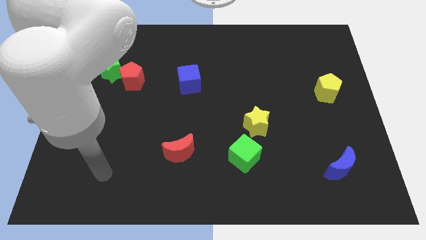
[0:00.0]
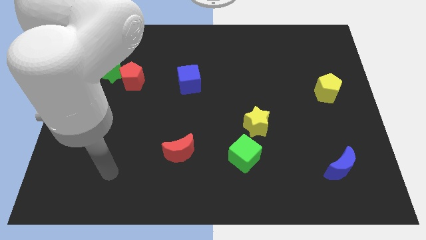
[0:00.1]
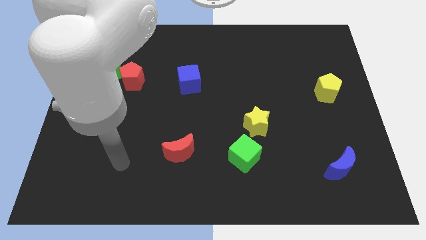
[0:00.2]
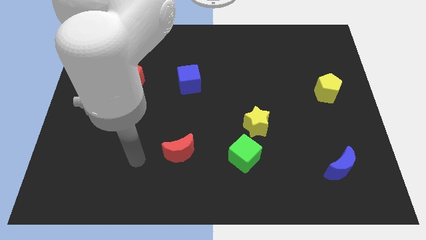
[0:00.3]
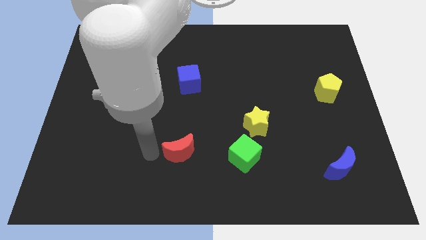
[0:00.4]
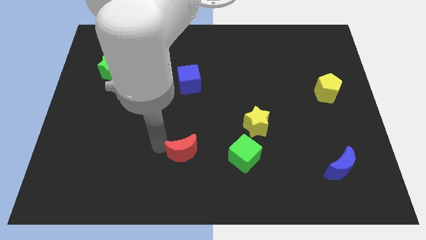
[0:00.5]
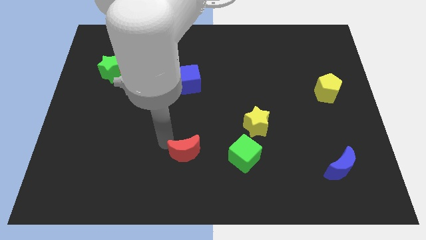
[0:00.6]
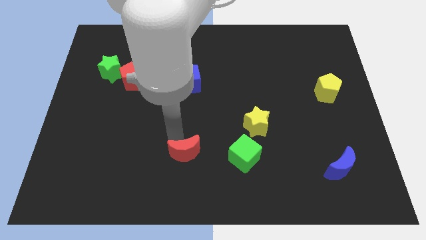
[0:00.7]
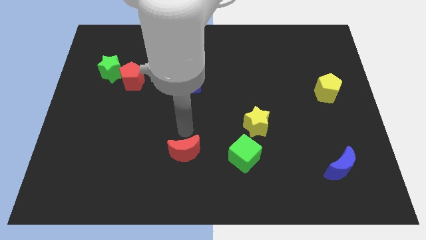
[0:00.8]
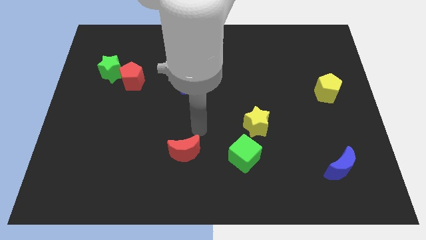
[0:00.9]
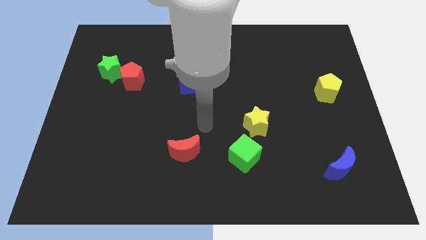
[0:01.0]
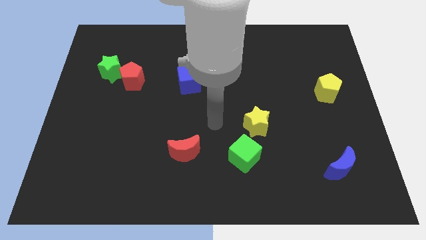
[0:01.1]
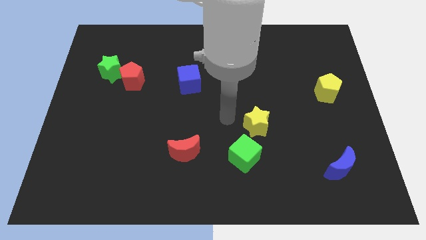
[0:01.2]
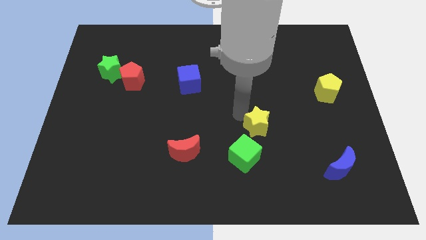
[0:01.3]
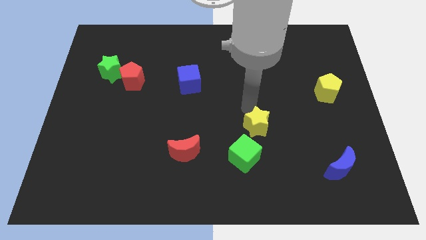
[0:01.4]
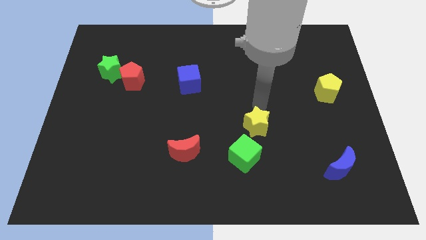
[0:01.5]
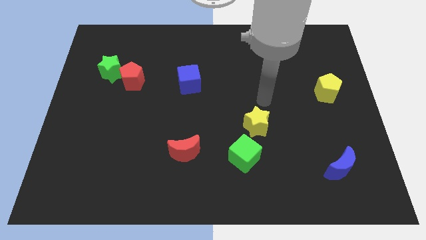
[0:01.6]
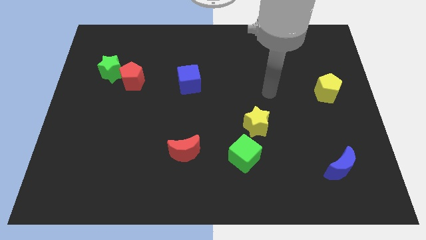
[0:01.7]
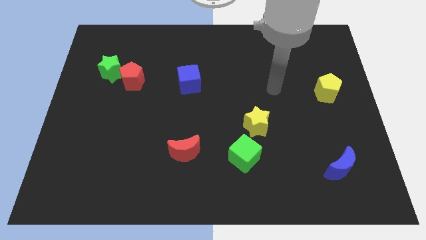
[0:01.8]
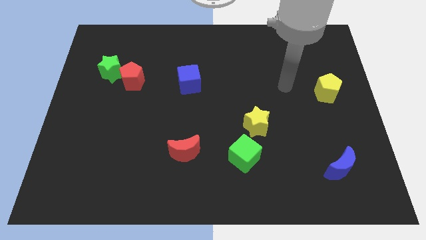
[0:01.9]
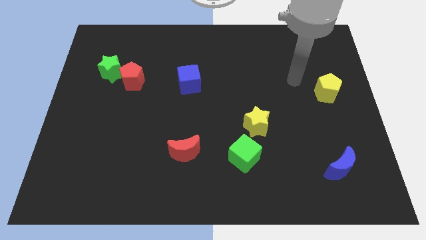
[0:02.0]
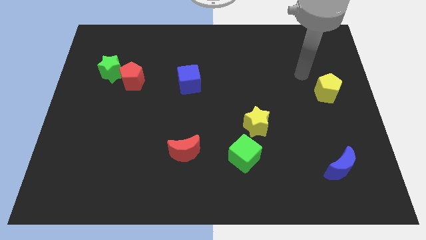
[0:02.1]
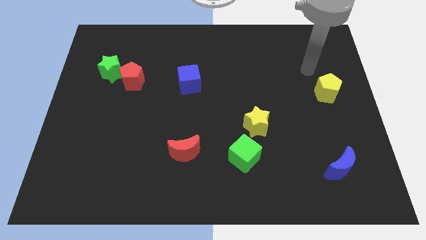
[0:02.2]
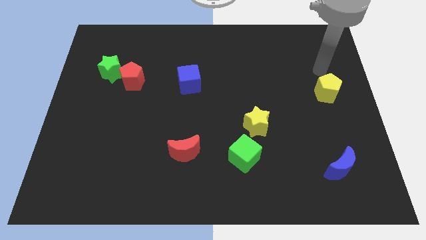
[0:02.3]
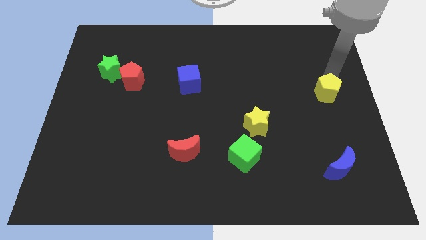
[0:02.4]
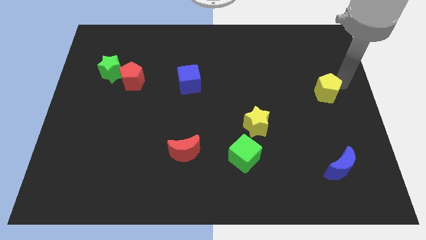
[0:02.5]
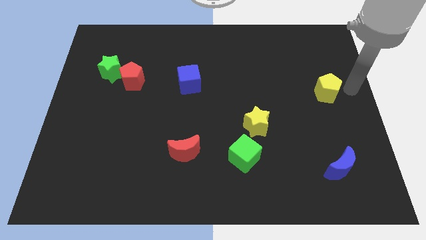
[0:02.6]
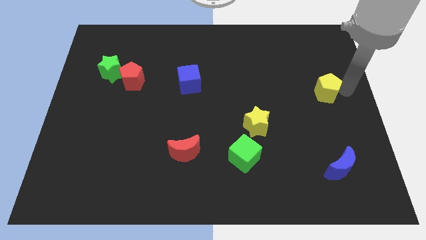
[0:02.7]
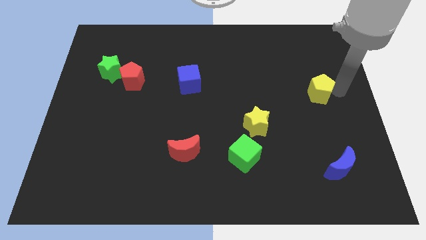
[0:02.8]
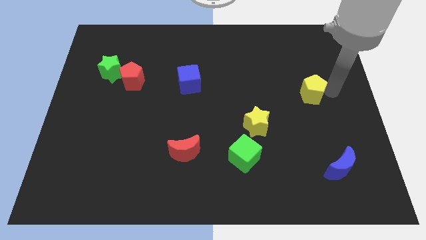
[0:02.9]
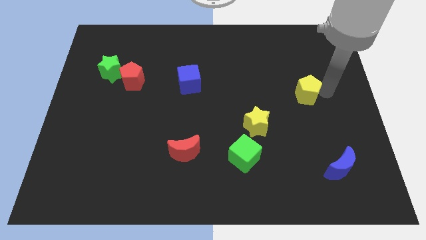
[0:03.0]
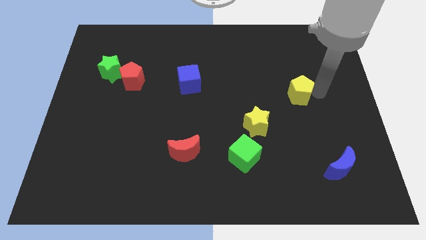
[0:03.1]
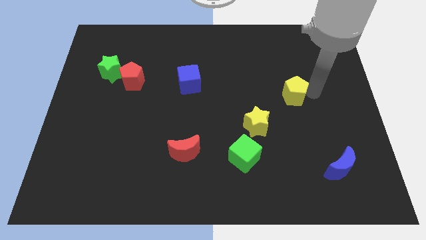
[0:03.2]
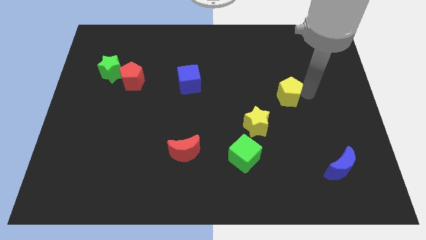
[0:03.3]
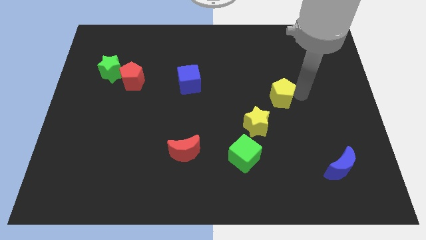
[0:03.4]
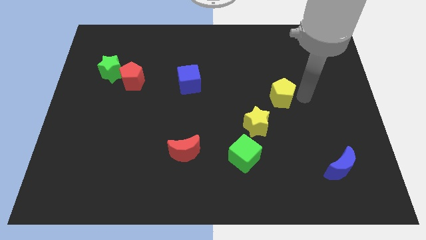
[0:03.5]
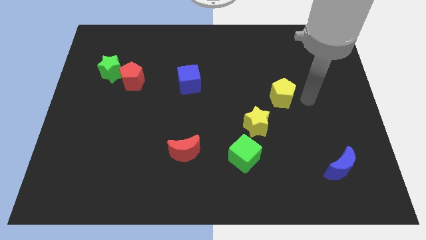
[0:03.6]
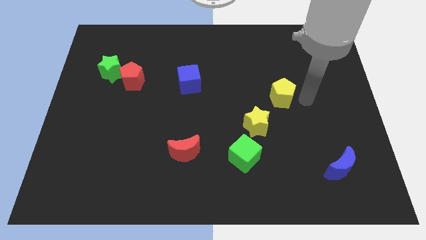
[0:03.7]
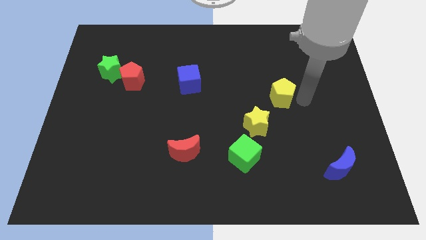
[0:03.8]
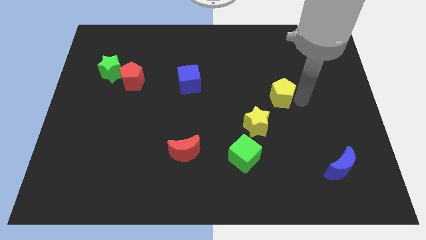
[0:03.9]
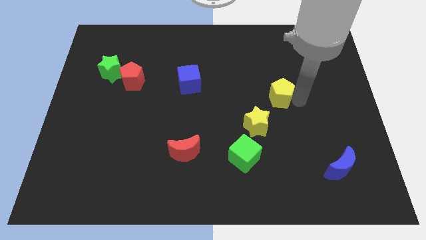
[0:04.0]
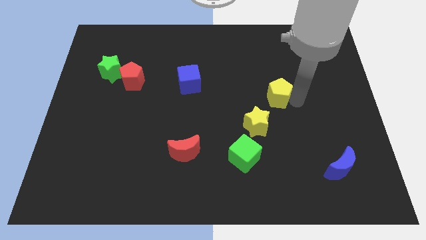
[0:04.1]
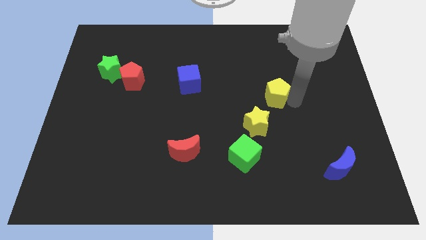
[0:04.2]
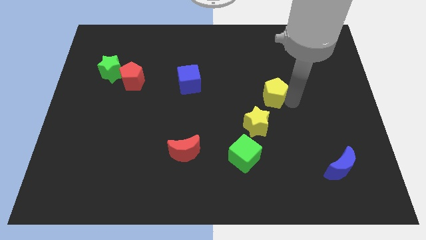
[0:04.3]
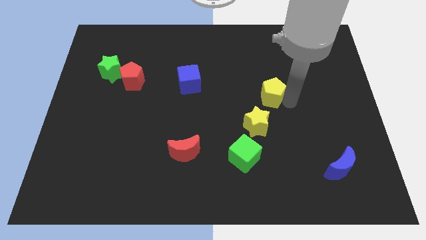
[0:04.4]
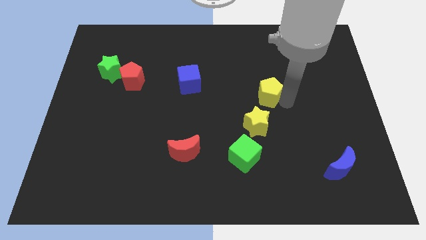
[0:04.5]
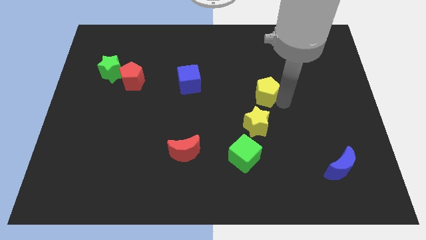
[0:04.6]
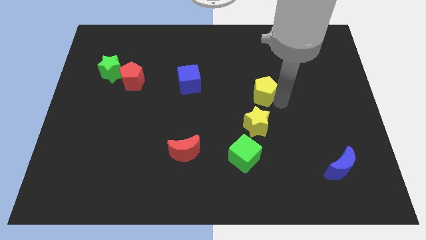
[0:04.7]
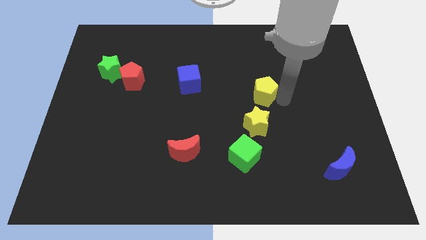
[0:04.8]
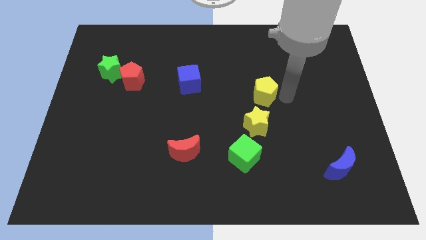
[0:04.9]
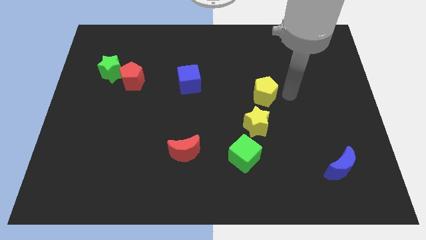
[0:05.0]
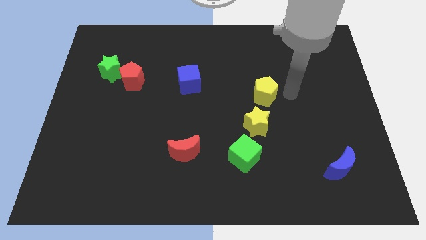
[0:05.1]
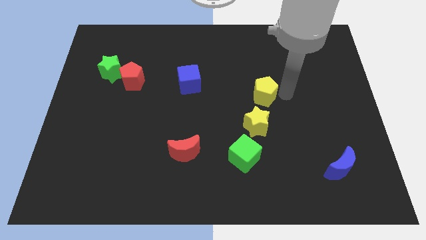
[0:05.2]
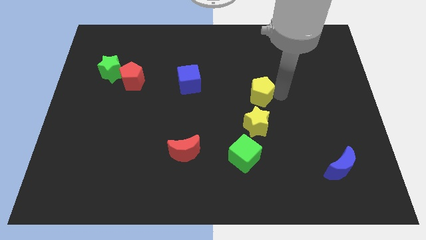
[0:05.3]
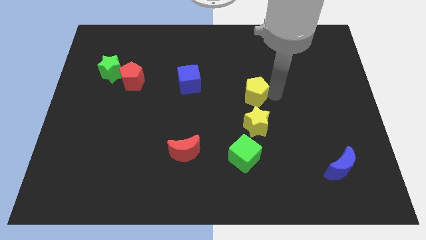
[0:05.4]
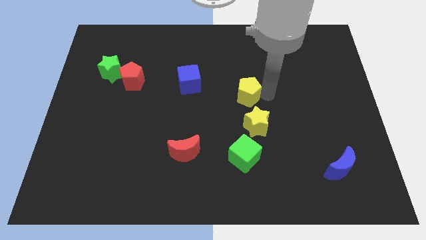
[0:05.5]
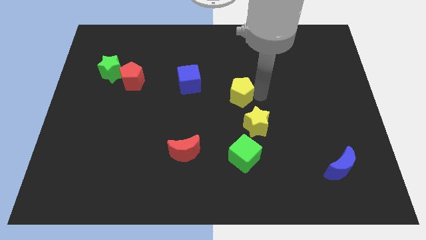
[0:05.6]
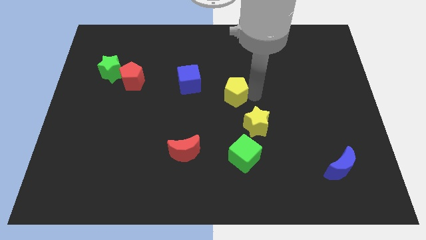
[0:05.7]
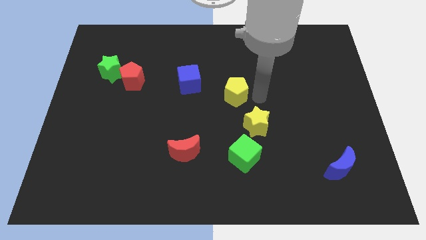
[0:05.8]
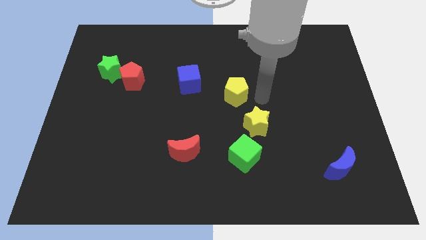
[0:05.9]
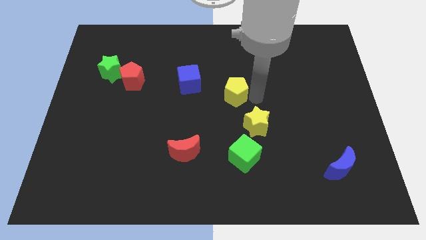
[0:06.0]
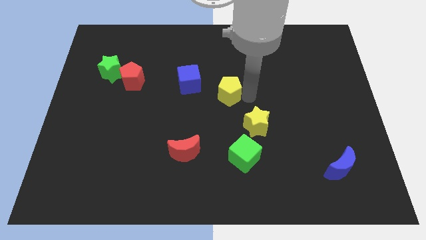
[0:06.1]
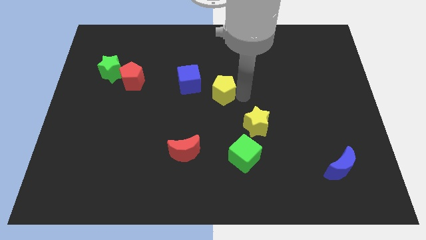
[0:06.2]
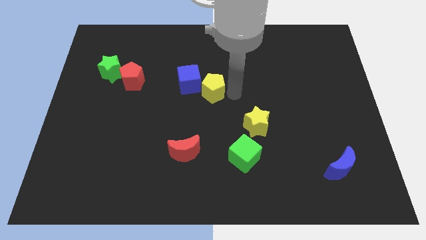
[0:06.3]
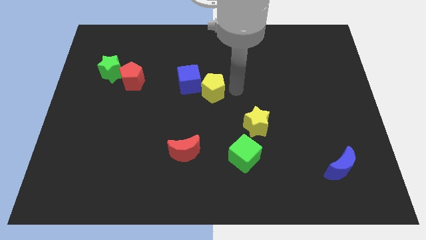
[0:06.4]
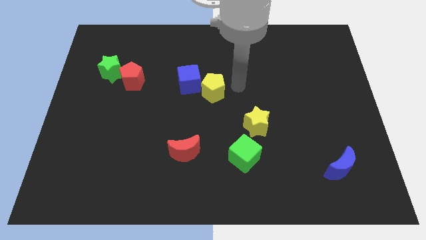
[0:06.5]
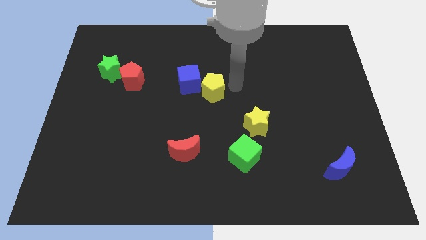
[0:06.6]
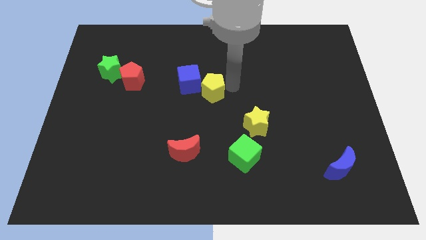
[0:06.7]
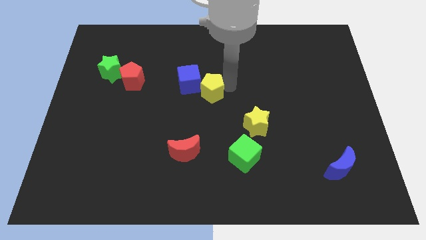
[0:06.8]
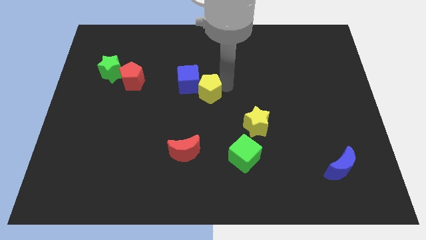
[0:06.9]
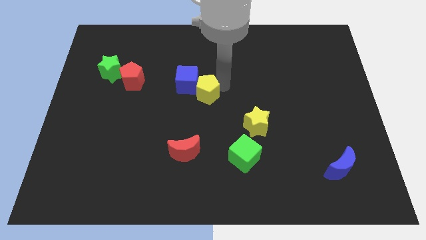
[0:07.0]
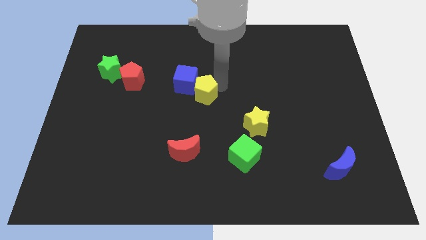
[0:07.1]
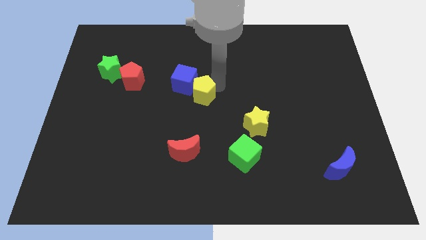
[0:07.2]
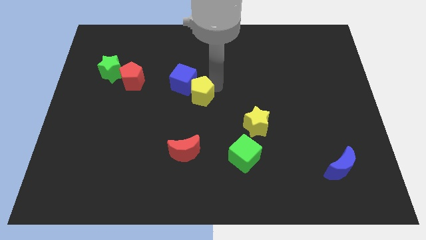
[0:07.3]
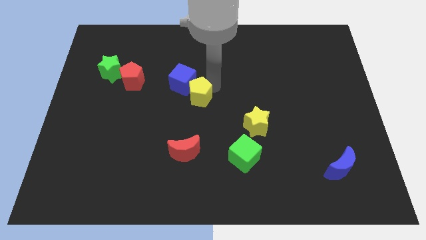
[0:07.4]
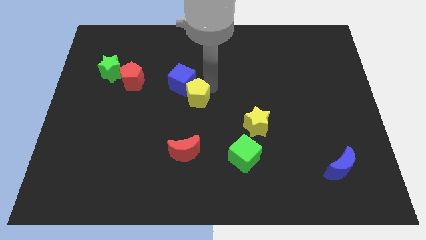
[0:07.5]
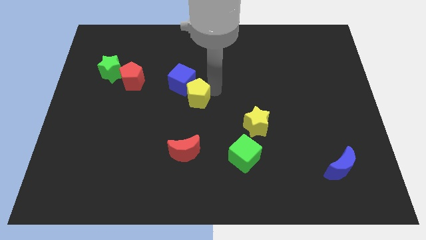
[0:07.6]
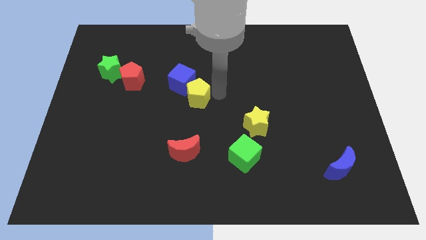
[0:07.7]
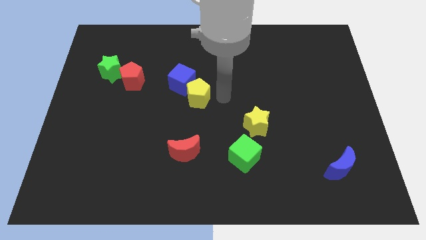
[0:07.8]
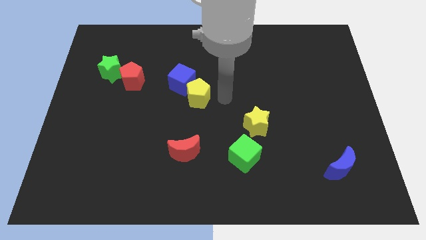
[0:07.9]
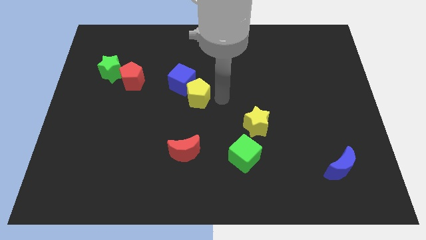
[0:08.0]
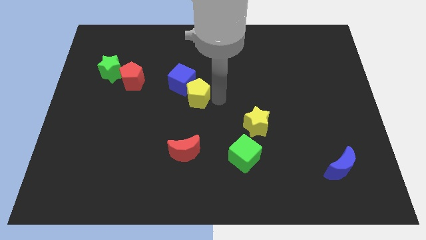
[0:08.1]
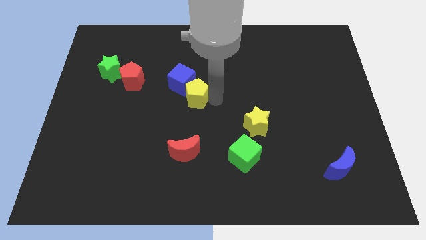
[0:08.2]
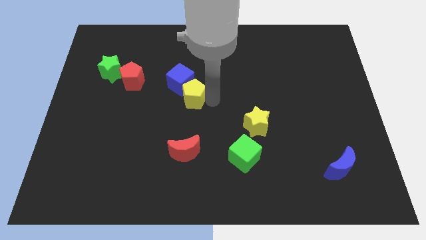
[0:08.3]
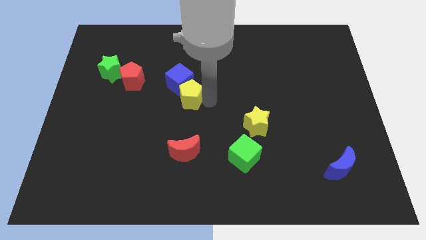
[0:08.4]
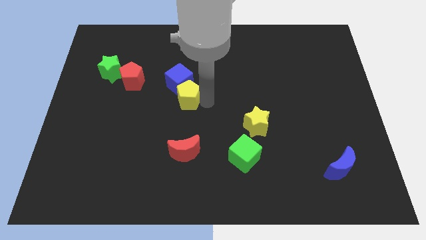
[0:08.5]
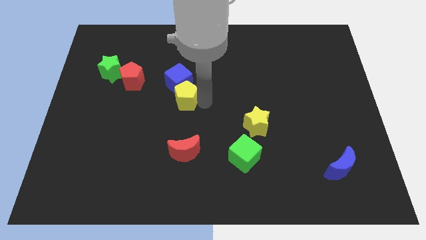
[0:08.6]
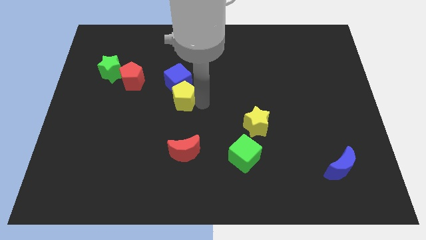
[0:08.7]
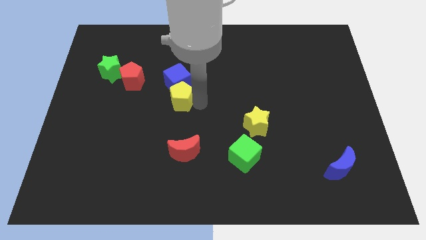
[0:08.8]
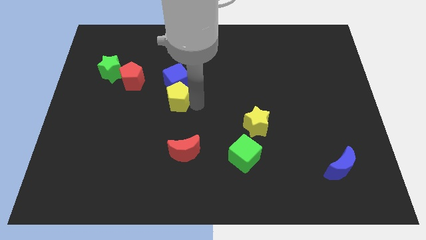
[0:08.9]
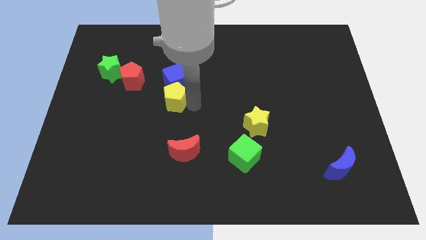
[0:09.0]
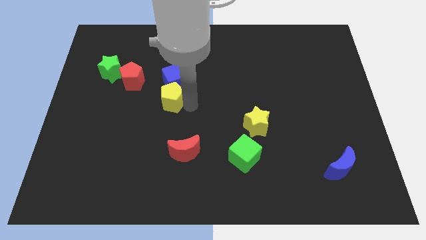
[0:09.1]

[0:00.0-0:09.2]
slide the yellow pentagon diagonally down and to the right of the red pentagon
